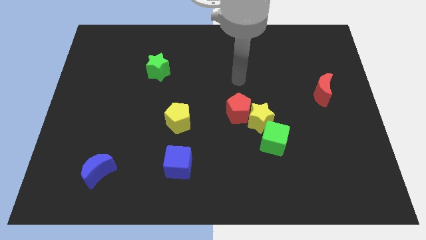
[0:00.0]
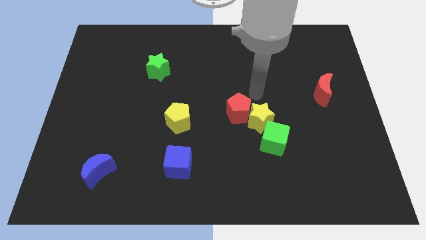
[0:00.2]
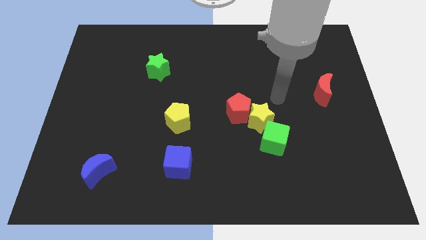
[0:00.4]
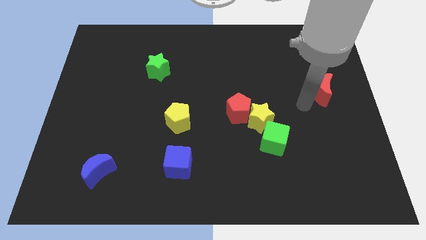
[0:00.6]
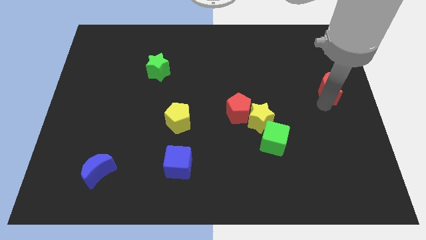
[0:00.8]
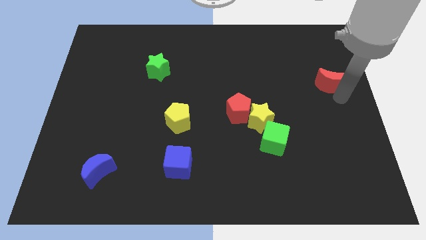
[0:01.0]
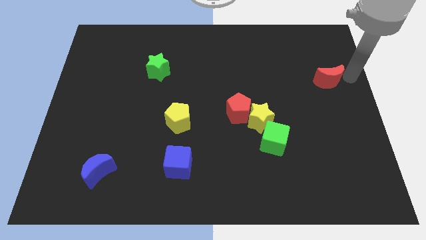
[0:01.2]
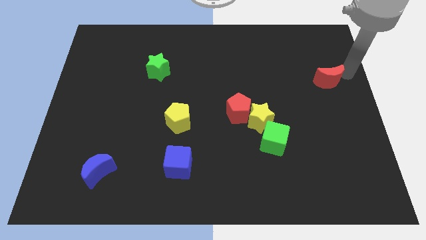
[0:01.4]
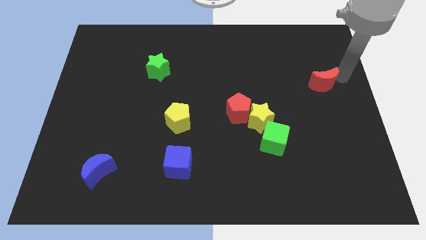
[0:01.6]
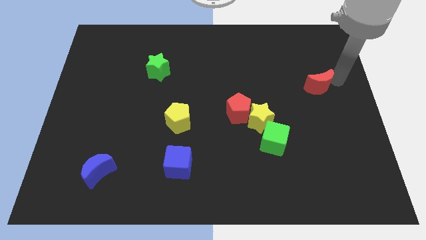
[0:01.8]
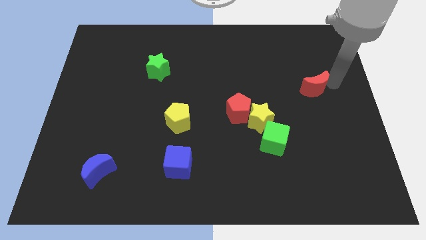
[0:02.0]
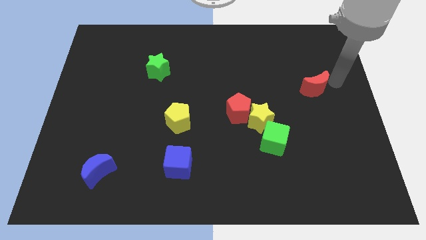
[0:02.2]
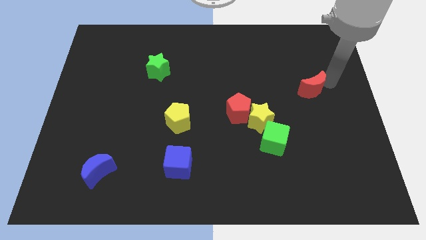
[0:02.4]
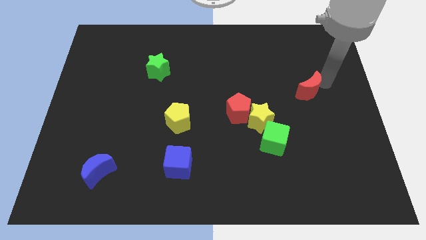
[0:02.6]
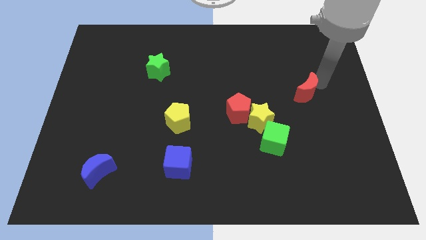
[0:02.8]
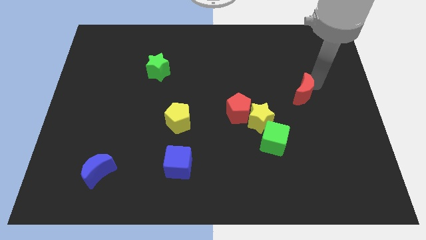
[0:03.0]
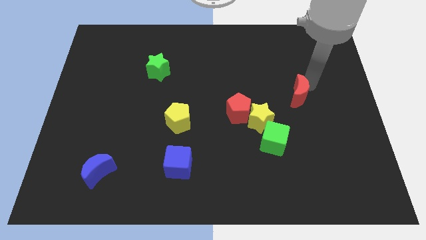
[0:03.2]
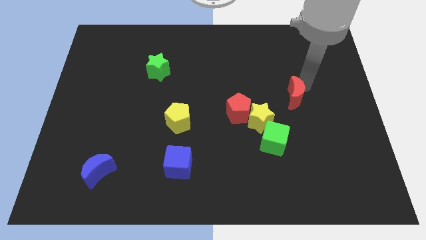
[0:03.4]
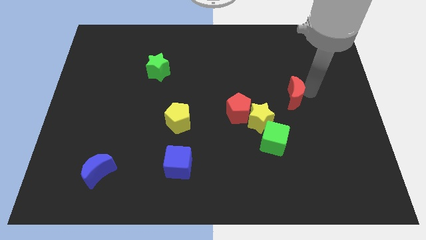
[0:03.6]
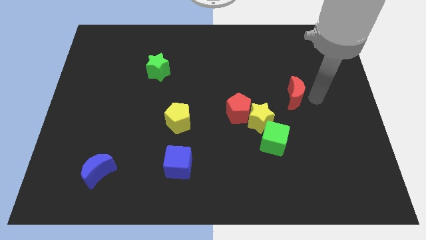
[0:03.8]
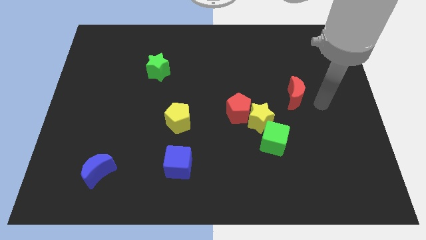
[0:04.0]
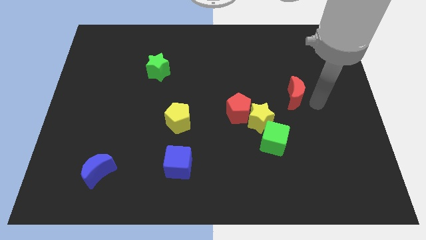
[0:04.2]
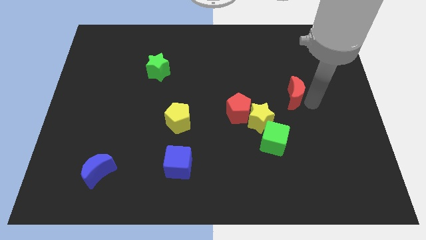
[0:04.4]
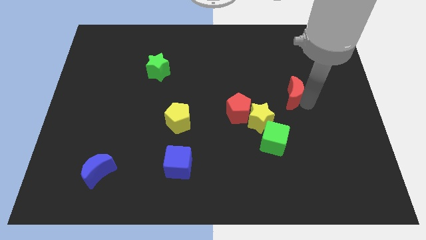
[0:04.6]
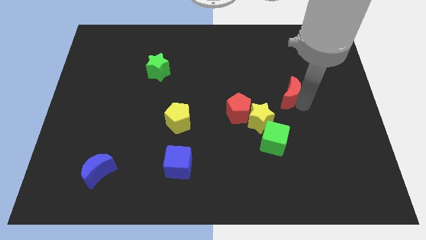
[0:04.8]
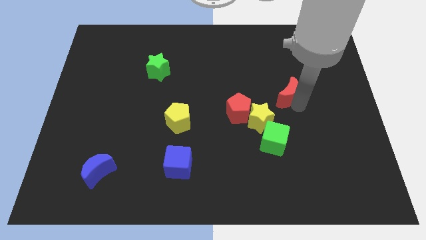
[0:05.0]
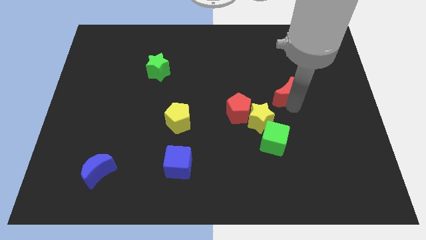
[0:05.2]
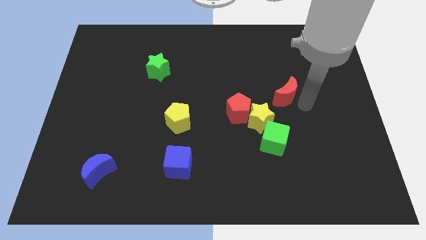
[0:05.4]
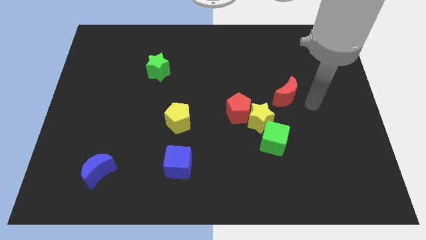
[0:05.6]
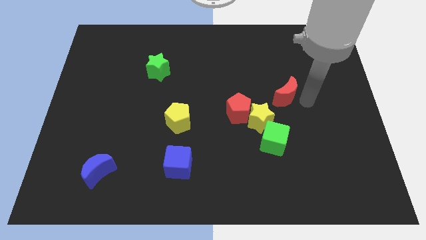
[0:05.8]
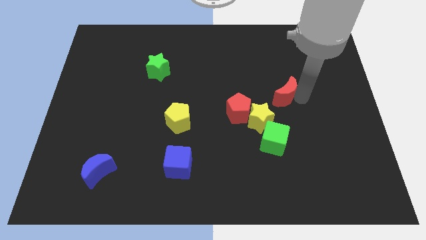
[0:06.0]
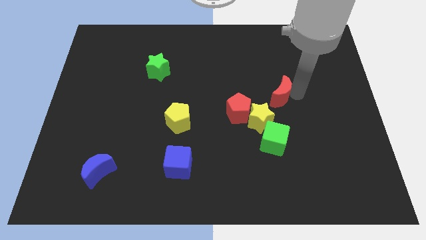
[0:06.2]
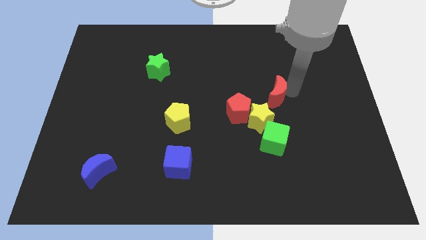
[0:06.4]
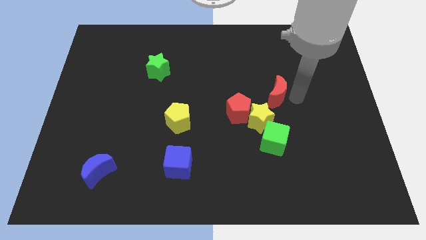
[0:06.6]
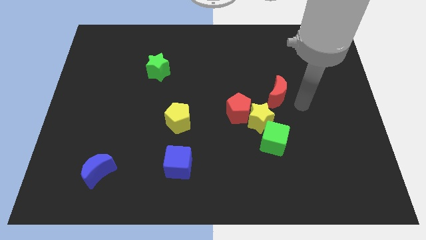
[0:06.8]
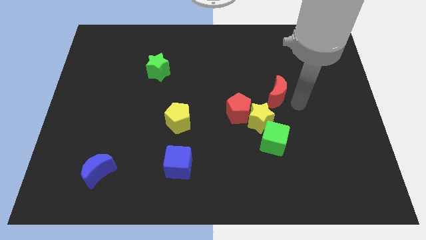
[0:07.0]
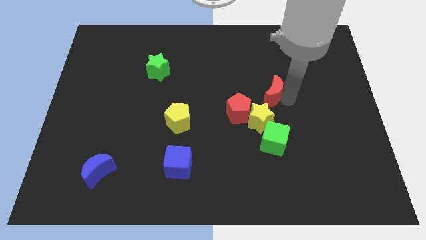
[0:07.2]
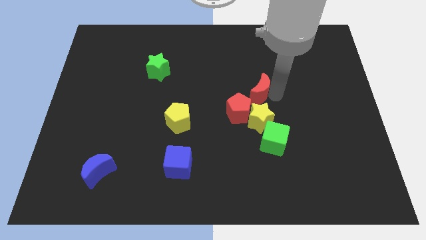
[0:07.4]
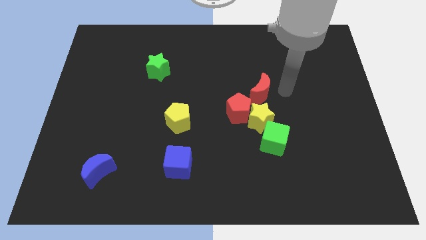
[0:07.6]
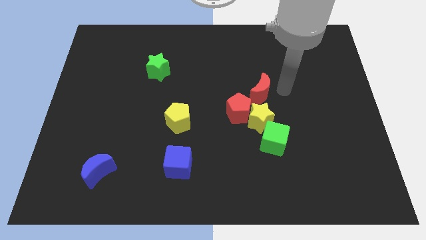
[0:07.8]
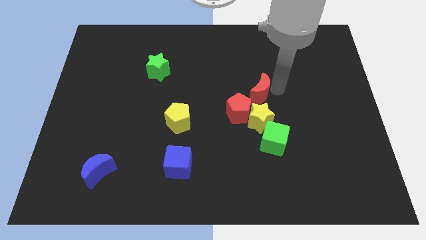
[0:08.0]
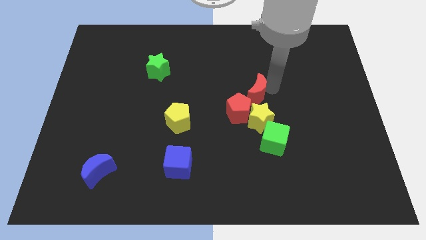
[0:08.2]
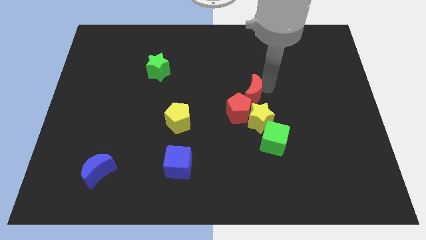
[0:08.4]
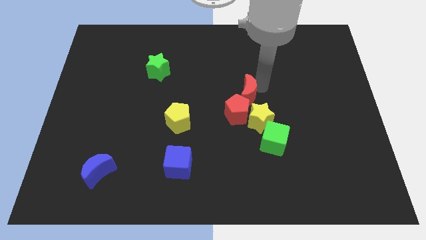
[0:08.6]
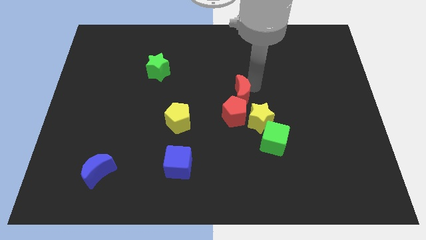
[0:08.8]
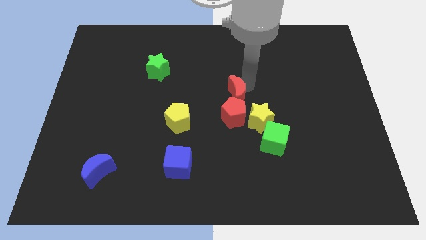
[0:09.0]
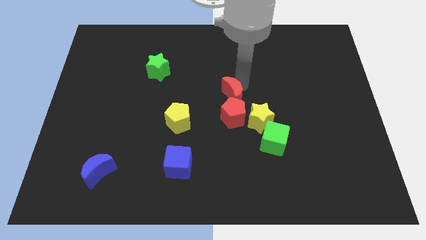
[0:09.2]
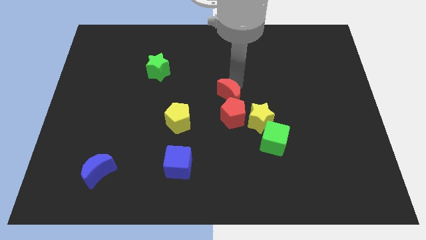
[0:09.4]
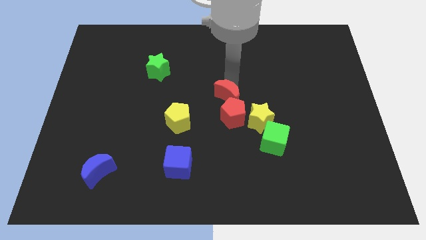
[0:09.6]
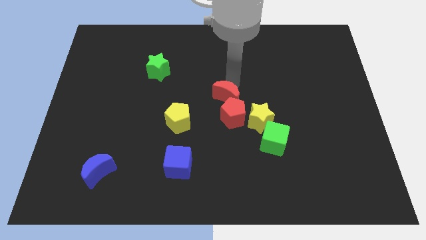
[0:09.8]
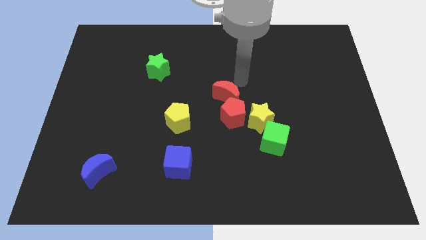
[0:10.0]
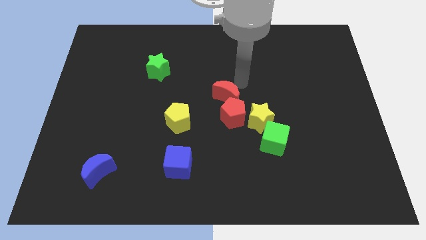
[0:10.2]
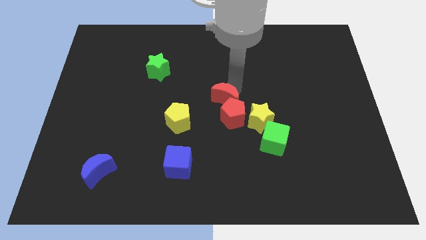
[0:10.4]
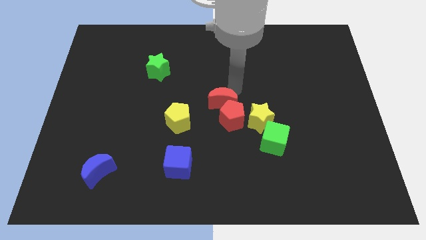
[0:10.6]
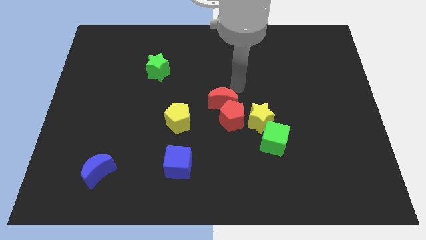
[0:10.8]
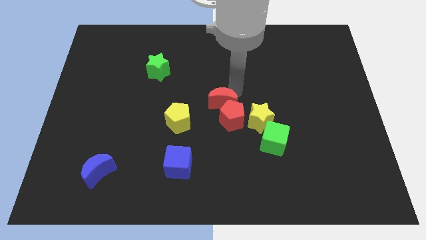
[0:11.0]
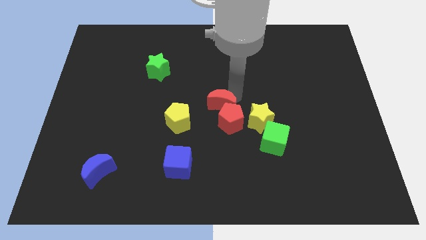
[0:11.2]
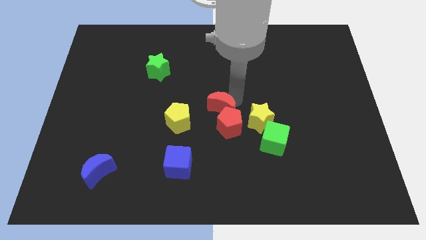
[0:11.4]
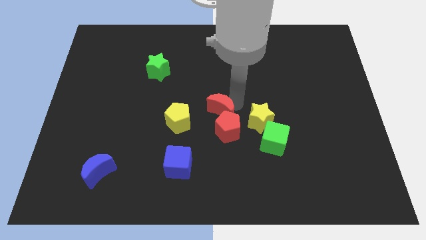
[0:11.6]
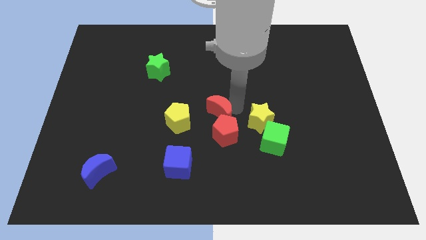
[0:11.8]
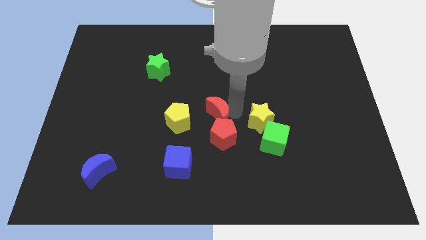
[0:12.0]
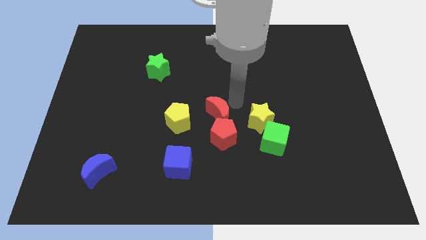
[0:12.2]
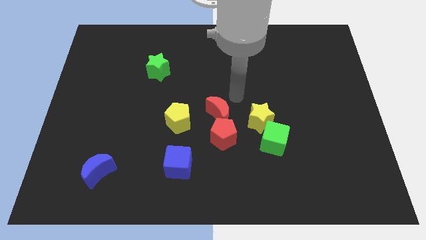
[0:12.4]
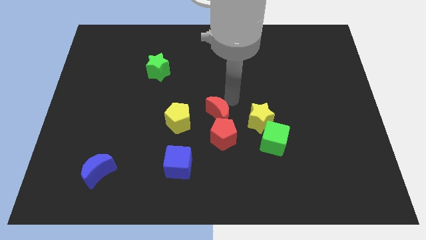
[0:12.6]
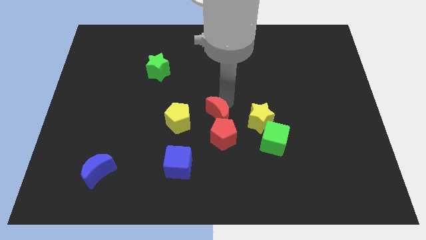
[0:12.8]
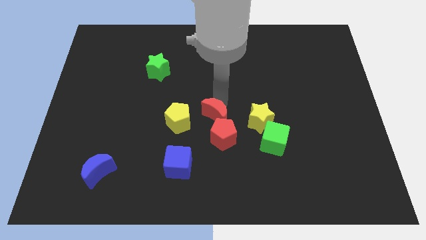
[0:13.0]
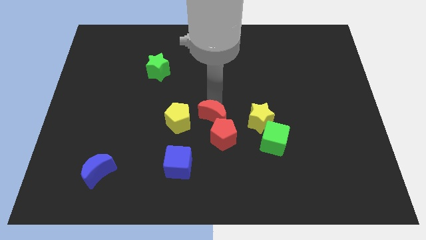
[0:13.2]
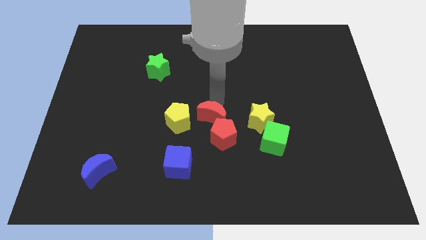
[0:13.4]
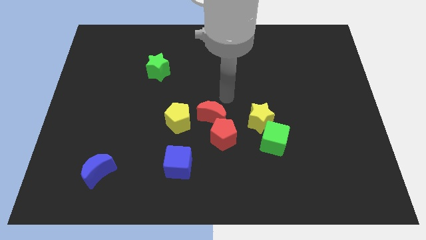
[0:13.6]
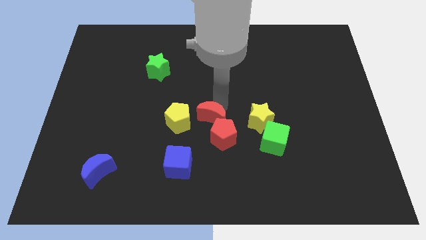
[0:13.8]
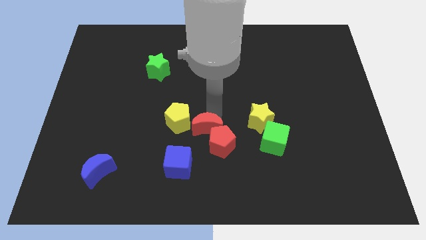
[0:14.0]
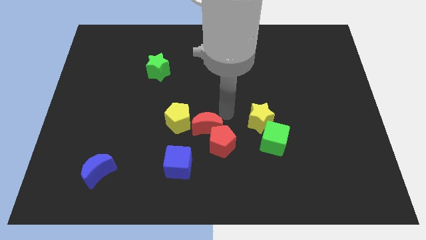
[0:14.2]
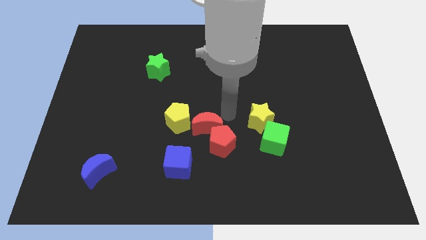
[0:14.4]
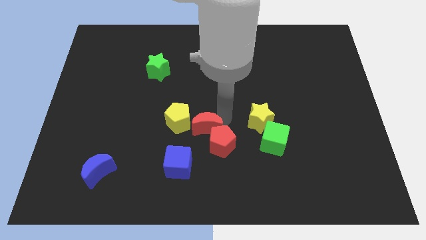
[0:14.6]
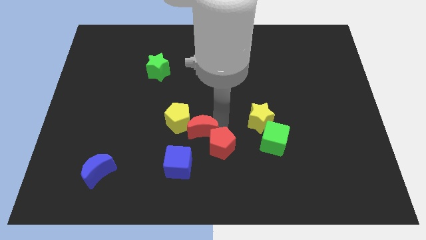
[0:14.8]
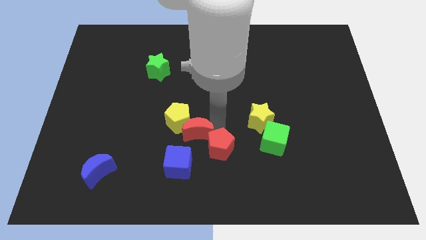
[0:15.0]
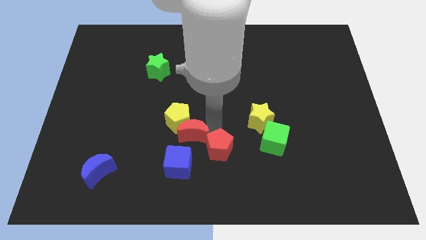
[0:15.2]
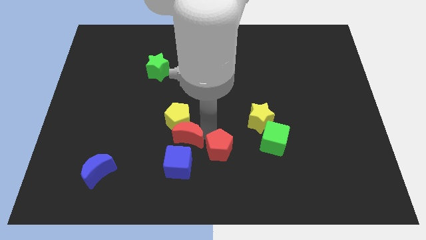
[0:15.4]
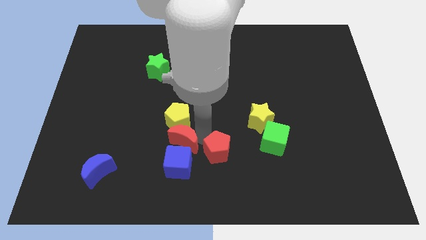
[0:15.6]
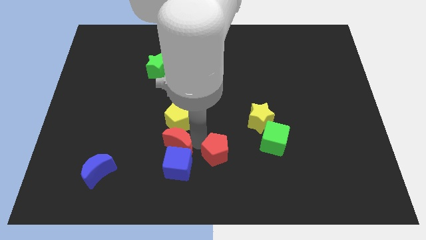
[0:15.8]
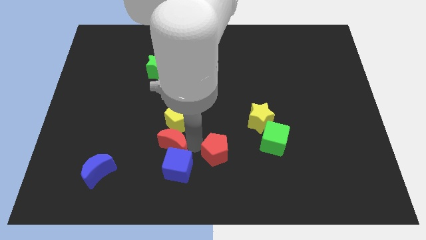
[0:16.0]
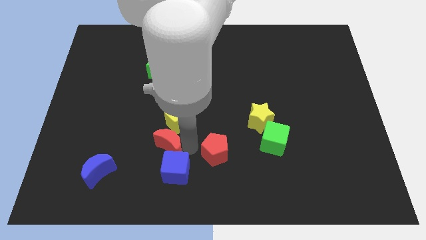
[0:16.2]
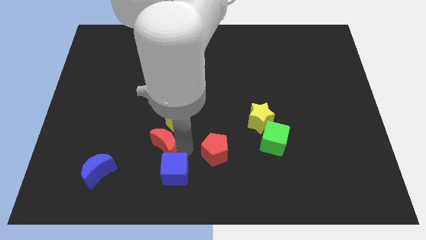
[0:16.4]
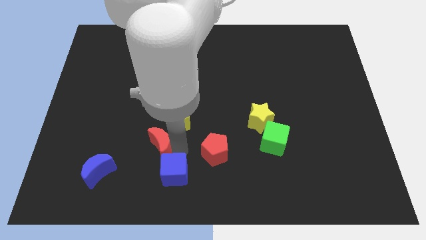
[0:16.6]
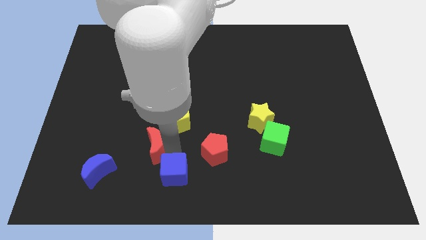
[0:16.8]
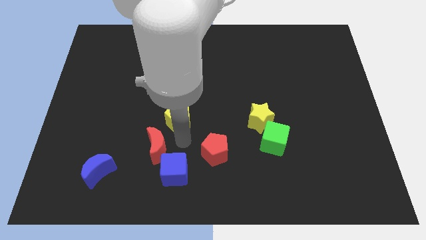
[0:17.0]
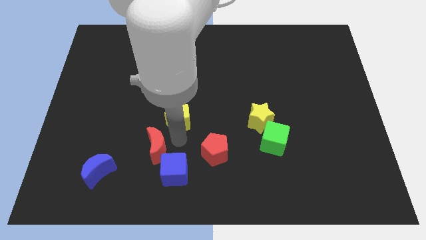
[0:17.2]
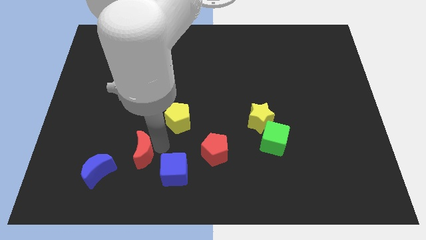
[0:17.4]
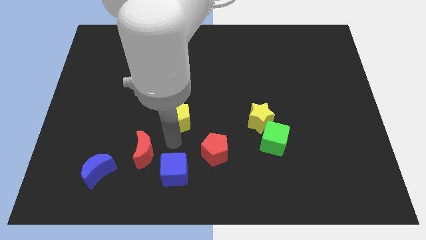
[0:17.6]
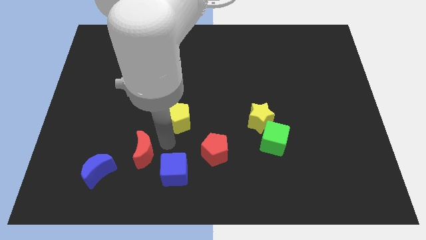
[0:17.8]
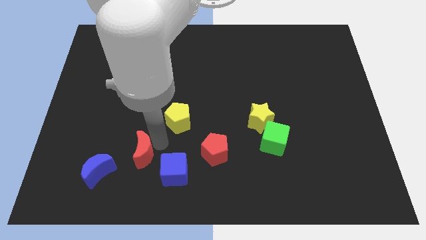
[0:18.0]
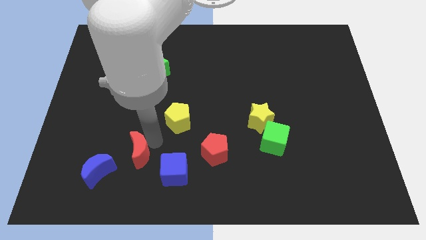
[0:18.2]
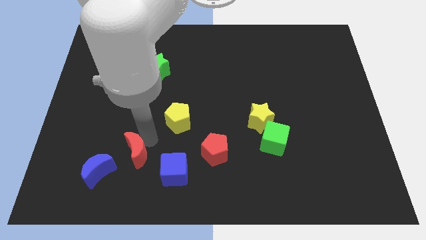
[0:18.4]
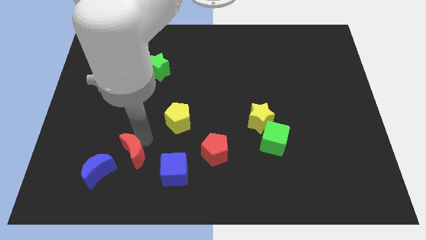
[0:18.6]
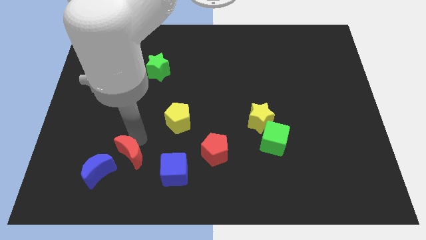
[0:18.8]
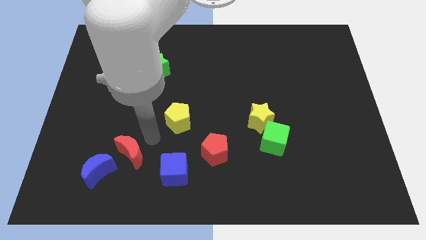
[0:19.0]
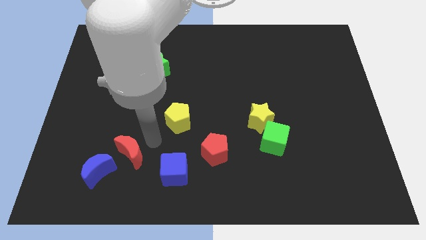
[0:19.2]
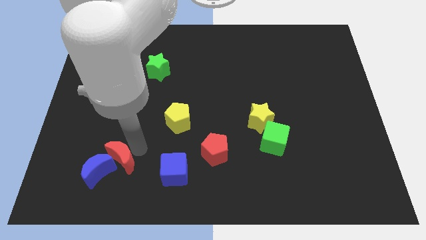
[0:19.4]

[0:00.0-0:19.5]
push the red moon towards the blue moon
